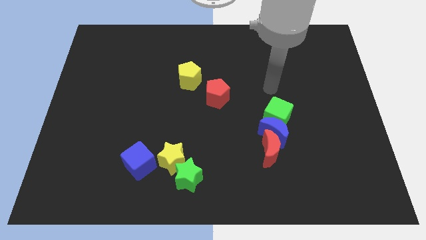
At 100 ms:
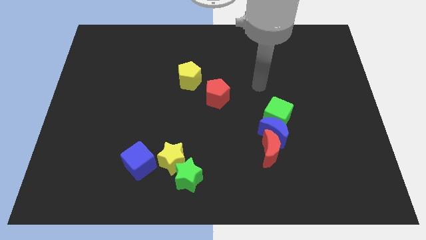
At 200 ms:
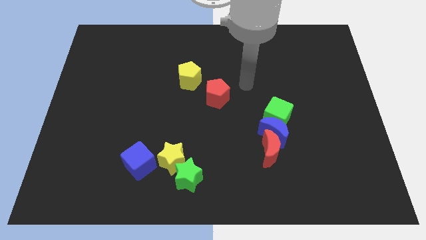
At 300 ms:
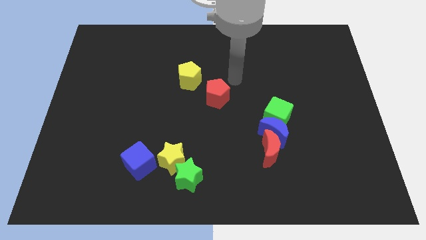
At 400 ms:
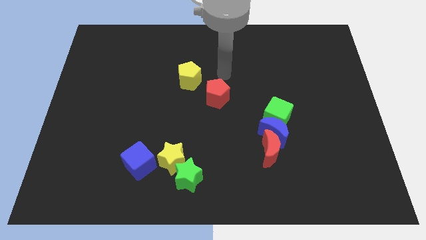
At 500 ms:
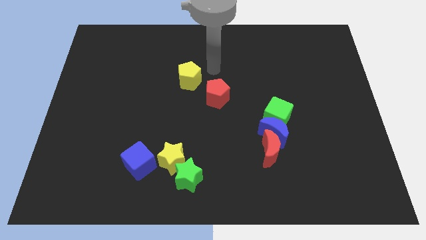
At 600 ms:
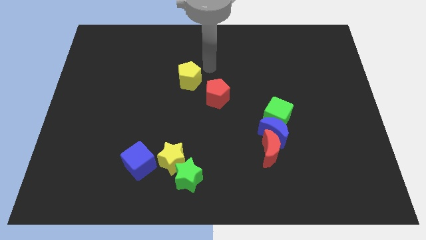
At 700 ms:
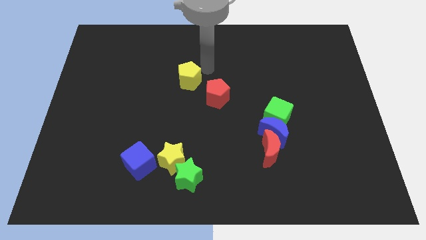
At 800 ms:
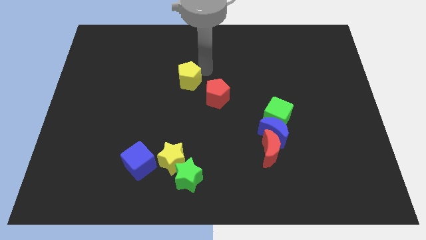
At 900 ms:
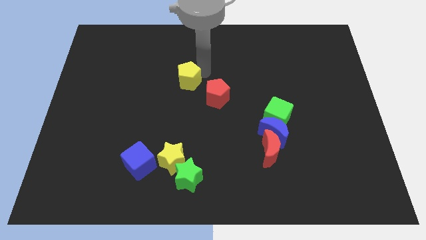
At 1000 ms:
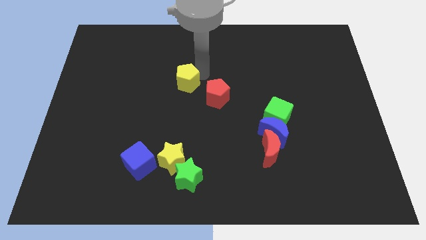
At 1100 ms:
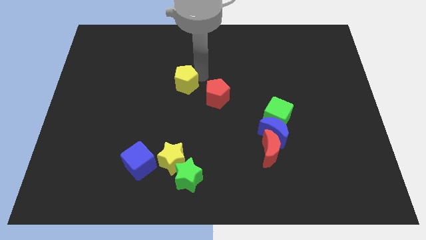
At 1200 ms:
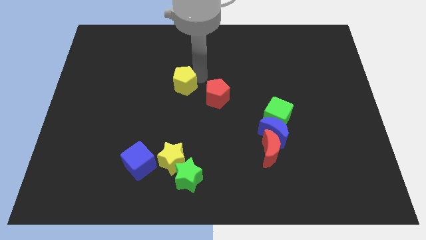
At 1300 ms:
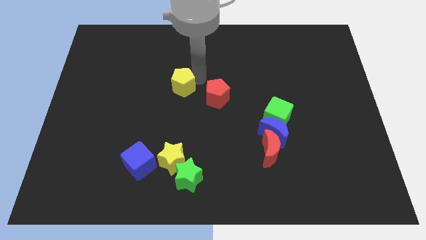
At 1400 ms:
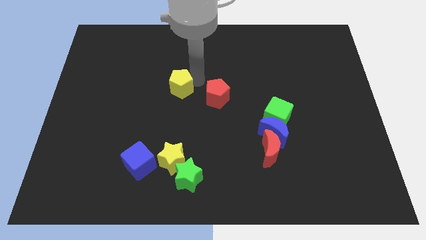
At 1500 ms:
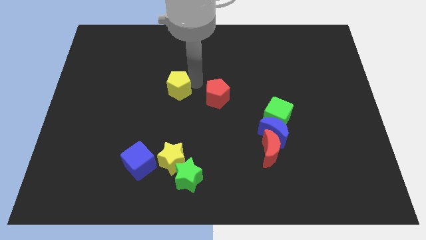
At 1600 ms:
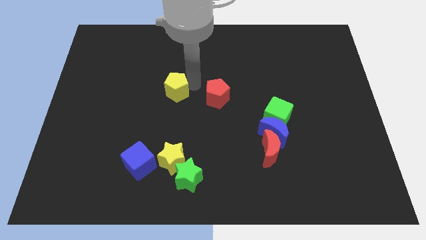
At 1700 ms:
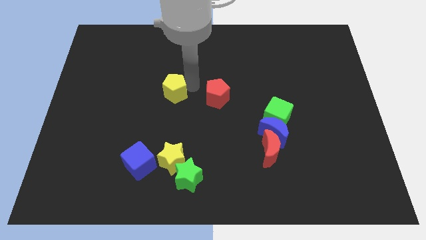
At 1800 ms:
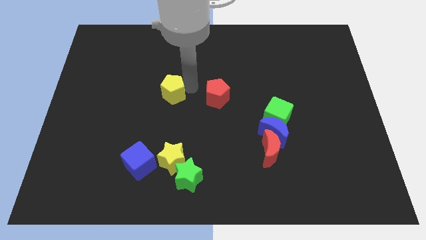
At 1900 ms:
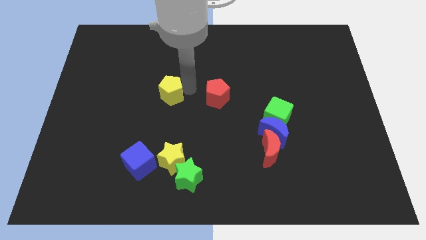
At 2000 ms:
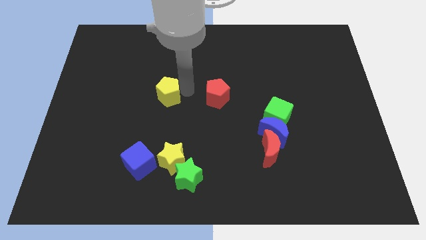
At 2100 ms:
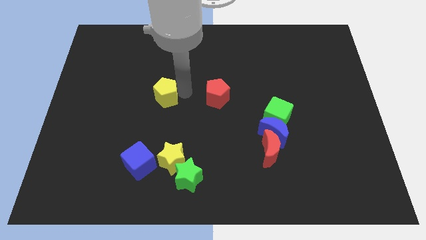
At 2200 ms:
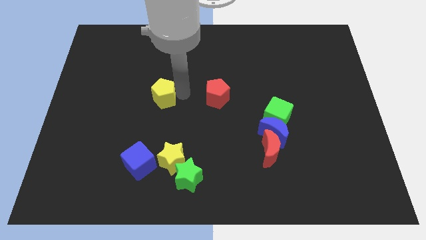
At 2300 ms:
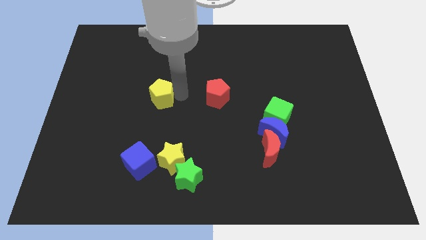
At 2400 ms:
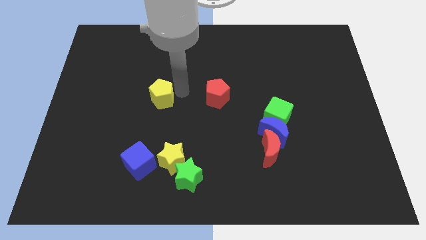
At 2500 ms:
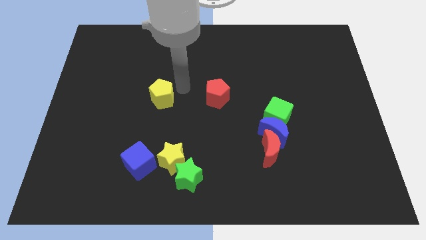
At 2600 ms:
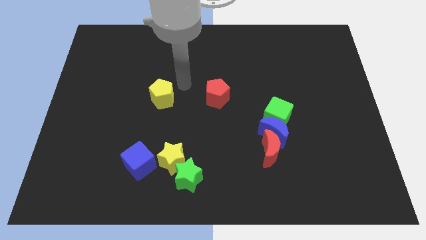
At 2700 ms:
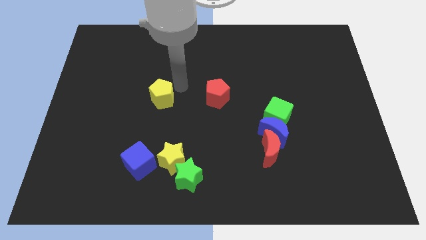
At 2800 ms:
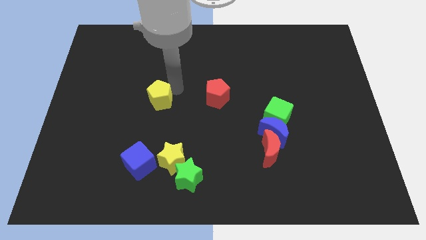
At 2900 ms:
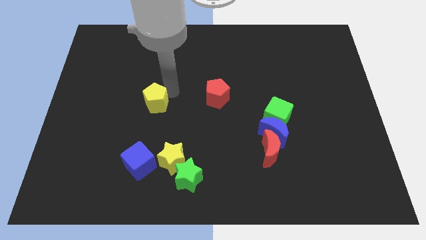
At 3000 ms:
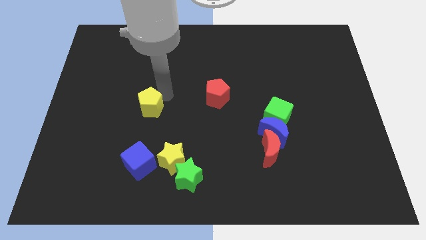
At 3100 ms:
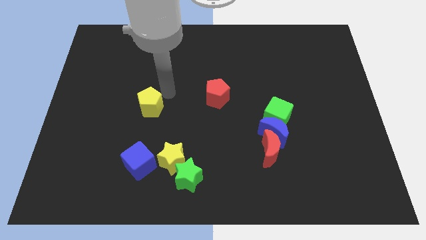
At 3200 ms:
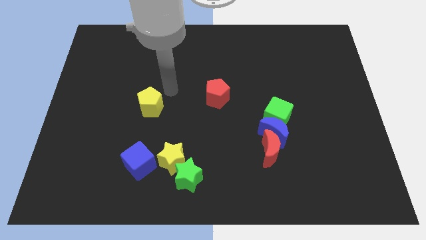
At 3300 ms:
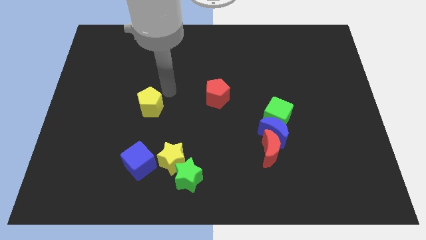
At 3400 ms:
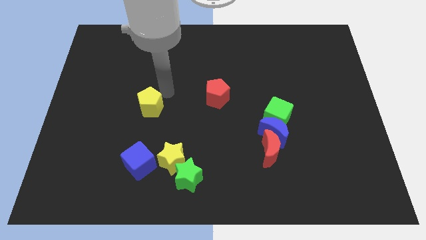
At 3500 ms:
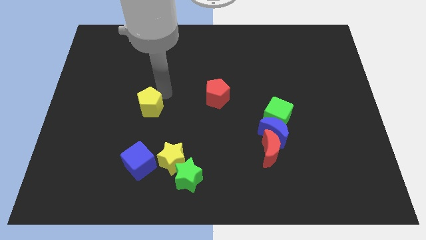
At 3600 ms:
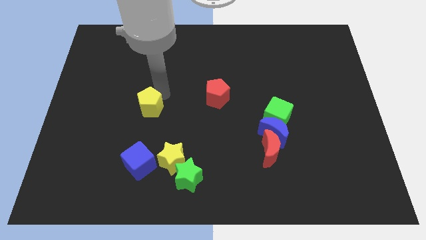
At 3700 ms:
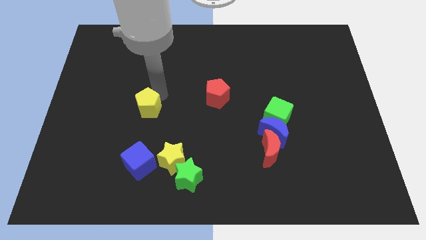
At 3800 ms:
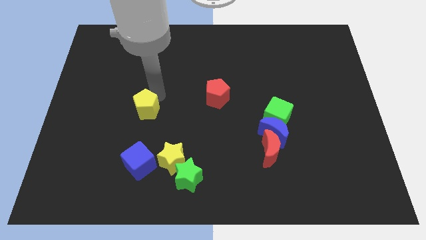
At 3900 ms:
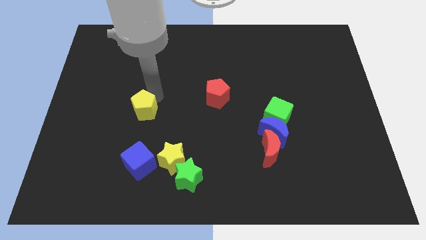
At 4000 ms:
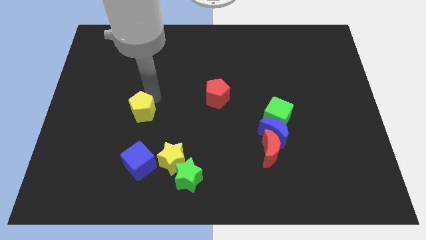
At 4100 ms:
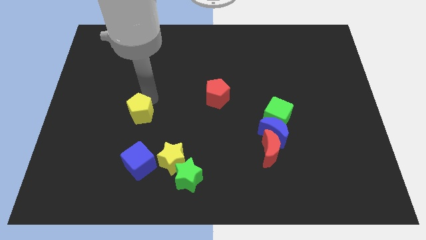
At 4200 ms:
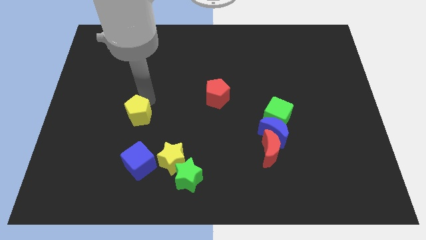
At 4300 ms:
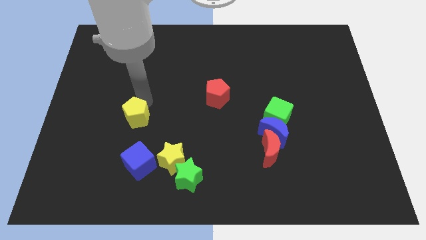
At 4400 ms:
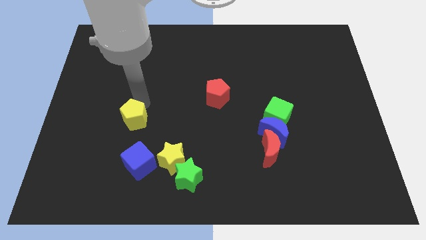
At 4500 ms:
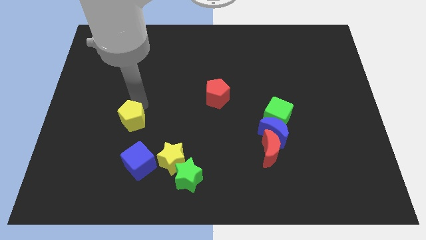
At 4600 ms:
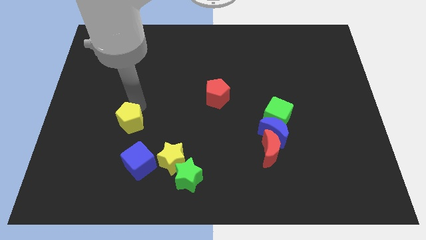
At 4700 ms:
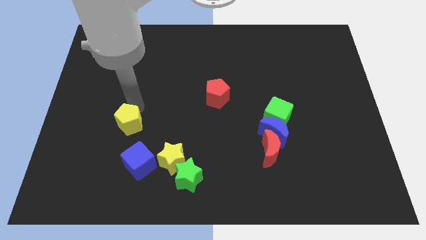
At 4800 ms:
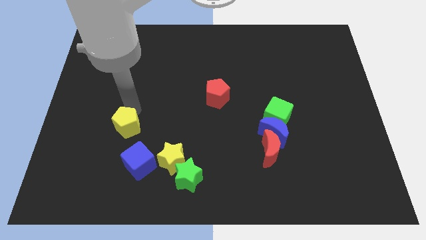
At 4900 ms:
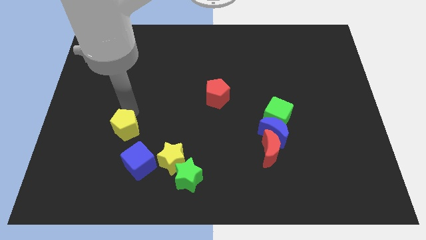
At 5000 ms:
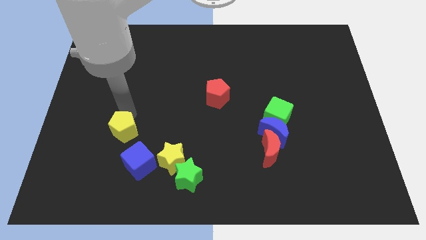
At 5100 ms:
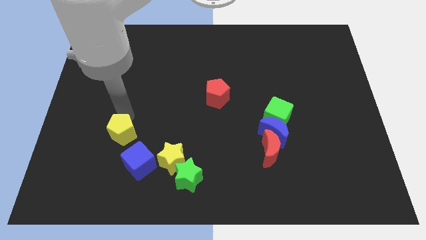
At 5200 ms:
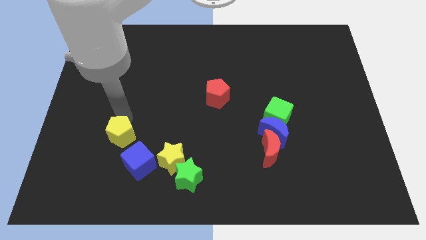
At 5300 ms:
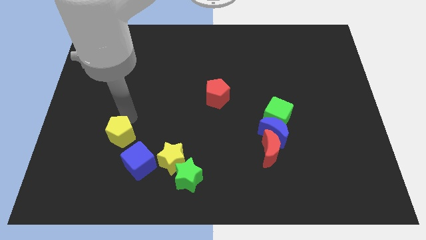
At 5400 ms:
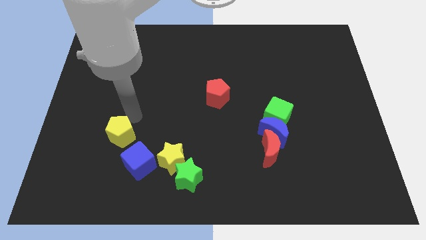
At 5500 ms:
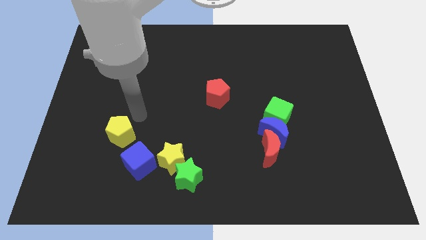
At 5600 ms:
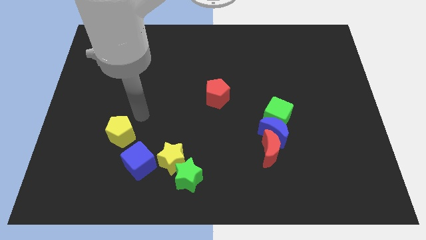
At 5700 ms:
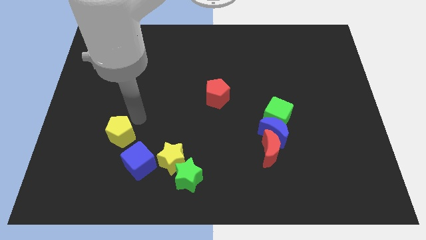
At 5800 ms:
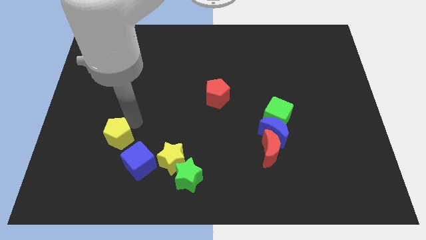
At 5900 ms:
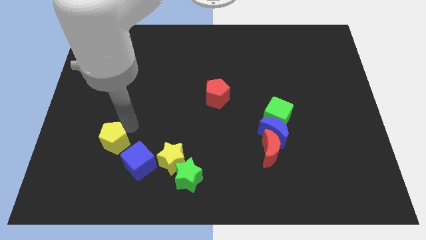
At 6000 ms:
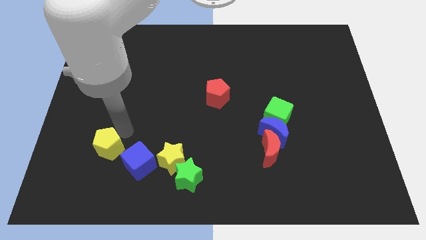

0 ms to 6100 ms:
push the yellow pentagon to the left of the blue cube
